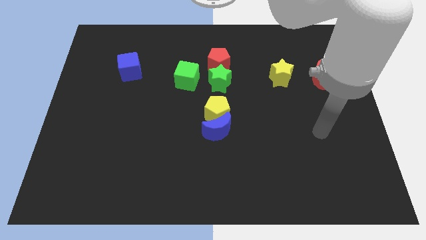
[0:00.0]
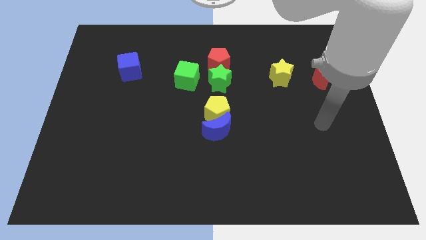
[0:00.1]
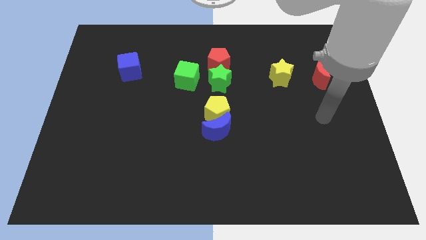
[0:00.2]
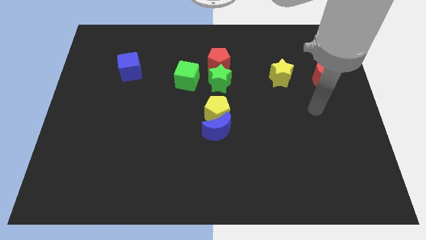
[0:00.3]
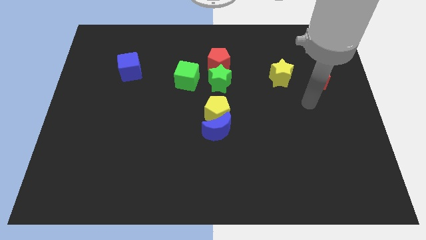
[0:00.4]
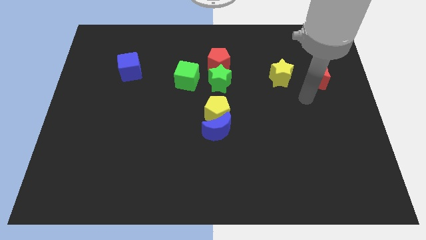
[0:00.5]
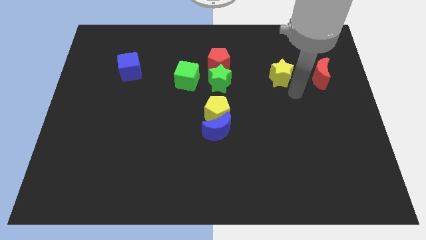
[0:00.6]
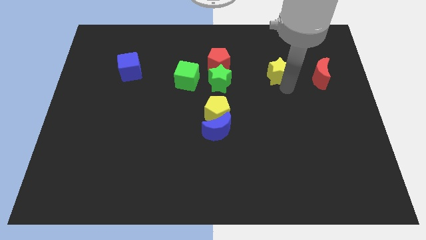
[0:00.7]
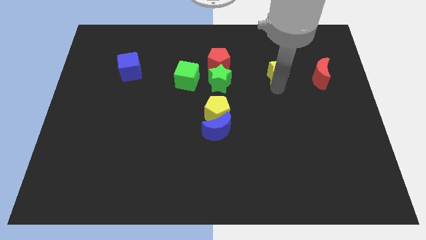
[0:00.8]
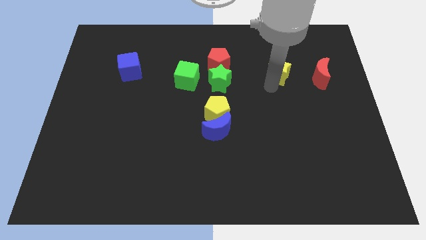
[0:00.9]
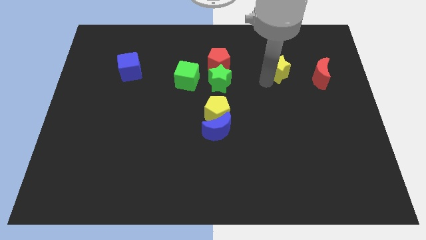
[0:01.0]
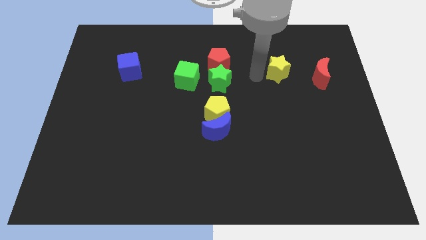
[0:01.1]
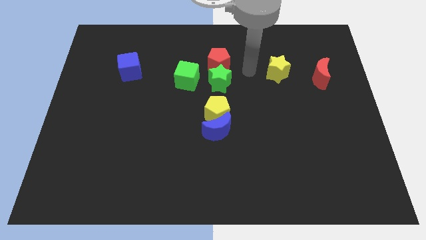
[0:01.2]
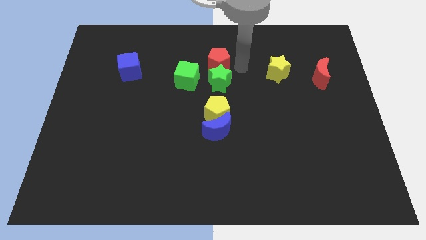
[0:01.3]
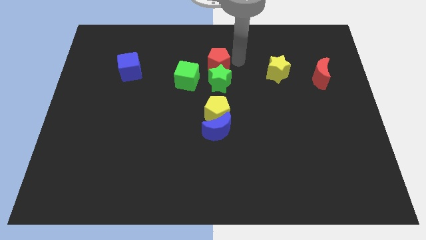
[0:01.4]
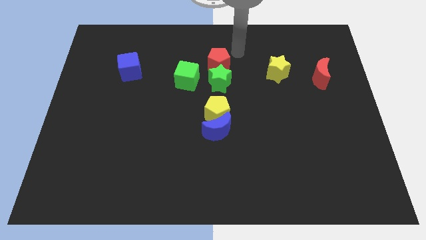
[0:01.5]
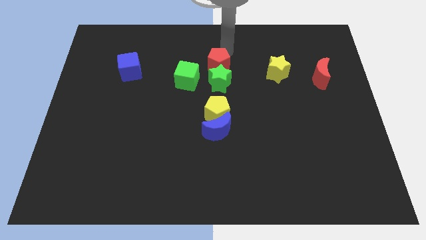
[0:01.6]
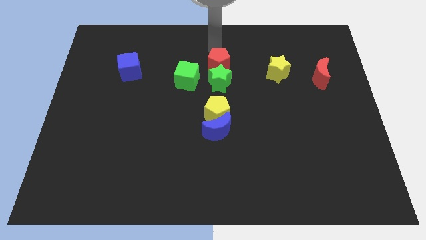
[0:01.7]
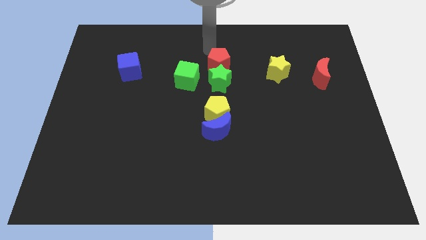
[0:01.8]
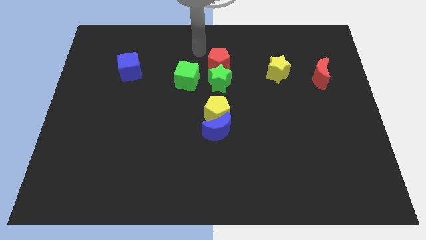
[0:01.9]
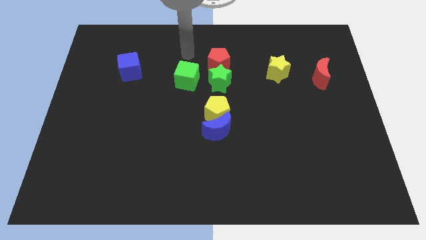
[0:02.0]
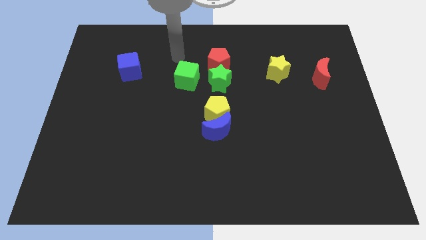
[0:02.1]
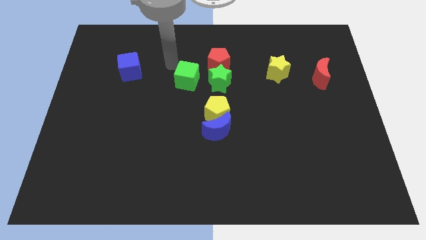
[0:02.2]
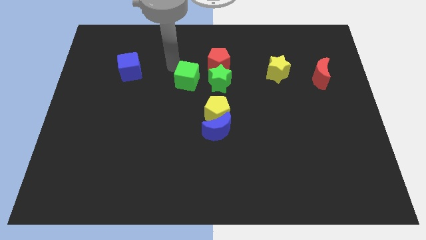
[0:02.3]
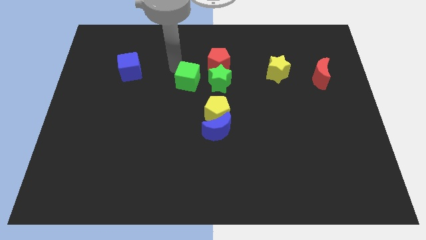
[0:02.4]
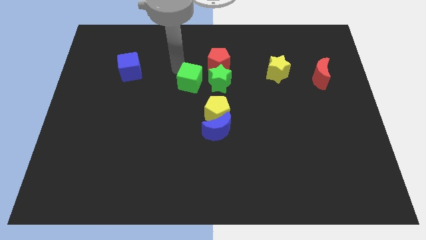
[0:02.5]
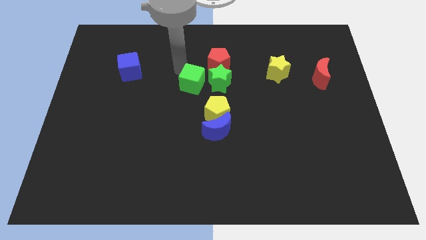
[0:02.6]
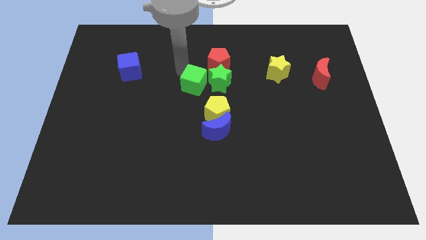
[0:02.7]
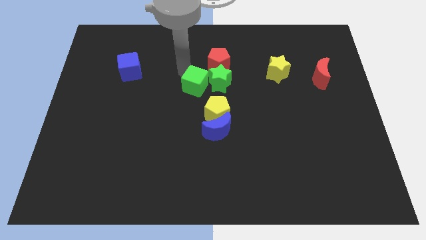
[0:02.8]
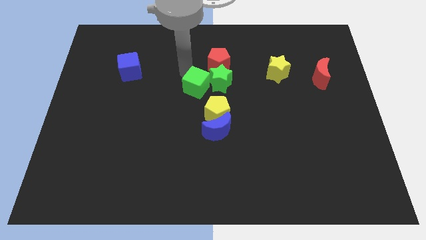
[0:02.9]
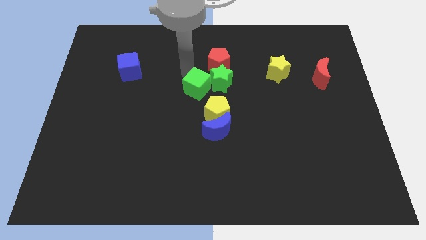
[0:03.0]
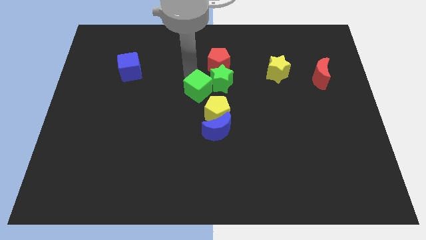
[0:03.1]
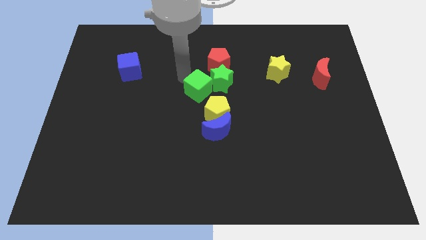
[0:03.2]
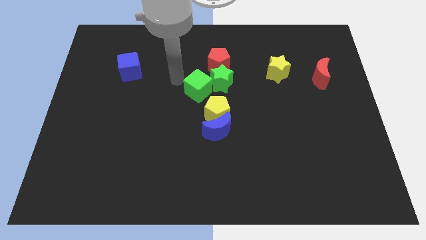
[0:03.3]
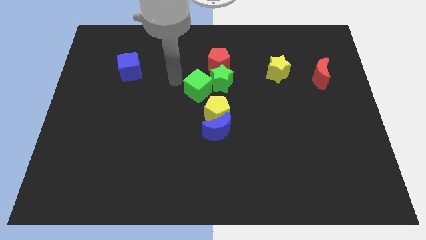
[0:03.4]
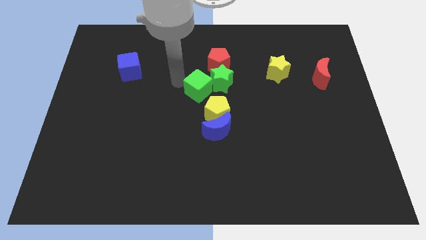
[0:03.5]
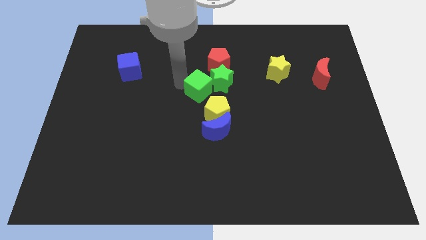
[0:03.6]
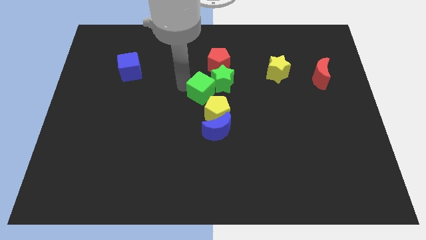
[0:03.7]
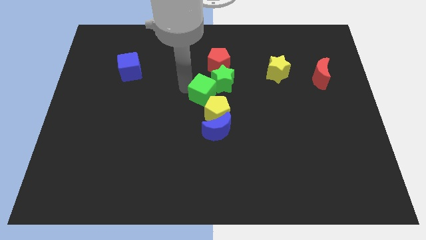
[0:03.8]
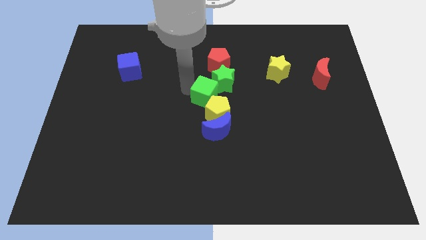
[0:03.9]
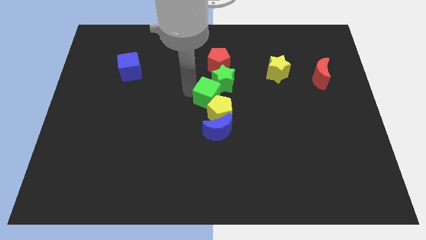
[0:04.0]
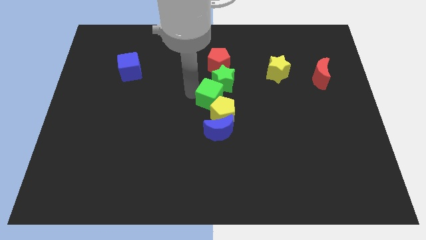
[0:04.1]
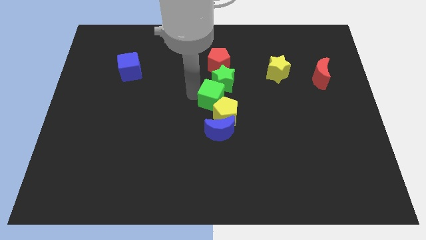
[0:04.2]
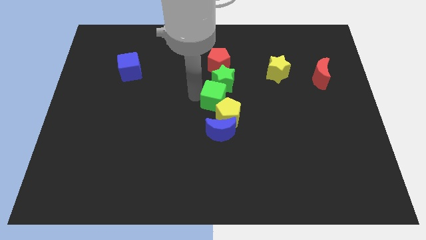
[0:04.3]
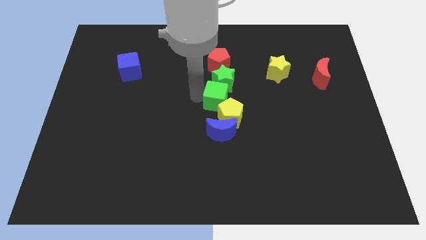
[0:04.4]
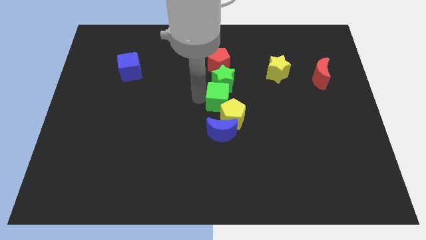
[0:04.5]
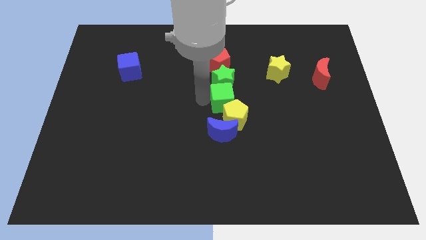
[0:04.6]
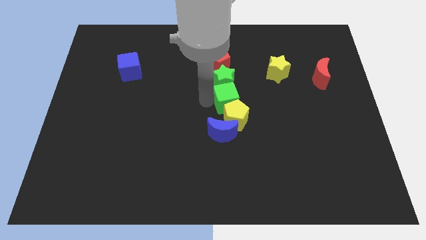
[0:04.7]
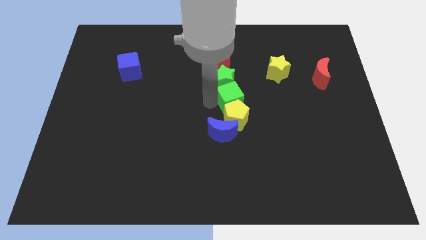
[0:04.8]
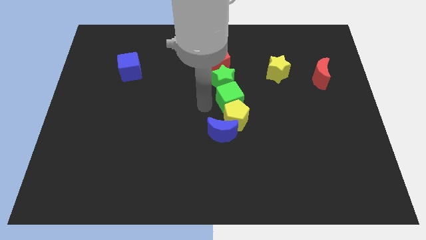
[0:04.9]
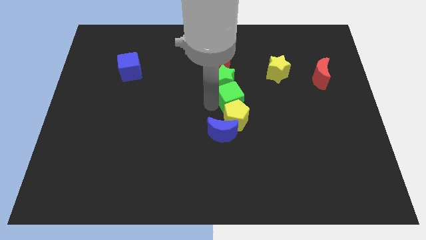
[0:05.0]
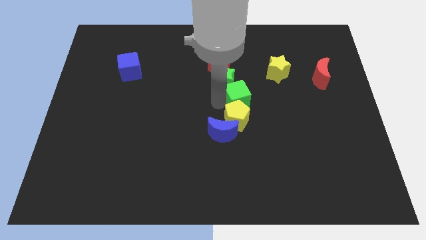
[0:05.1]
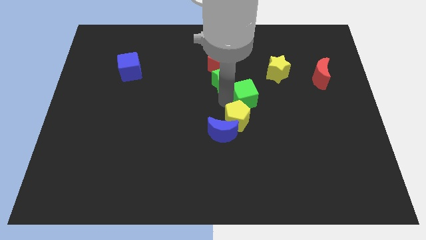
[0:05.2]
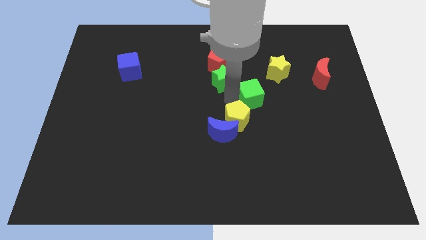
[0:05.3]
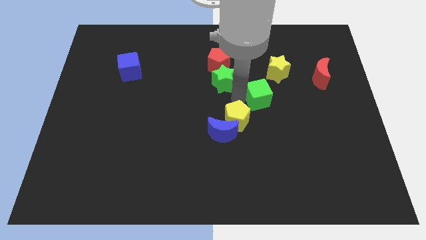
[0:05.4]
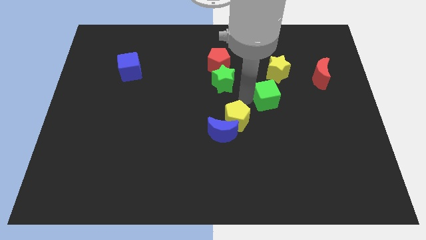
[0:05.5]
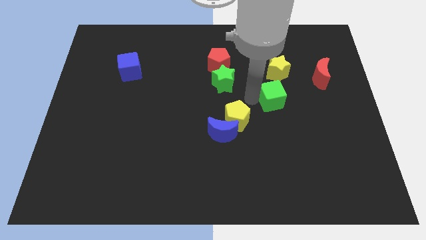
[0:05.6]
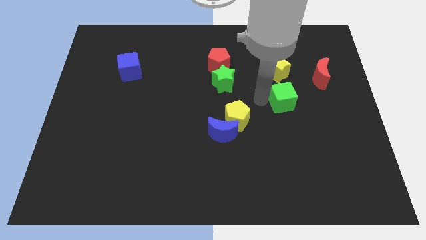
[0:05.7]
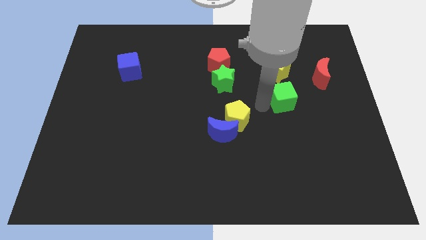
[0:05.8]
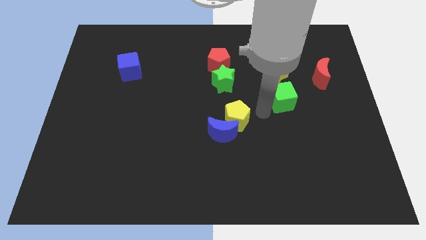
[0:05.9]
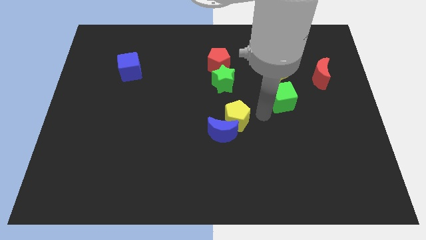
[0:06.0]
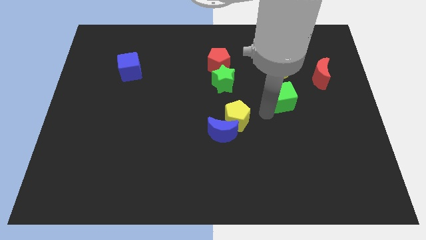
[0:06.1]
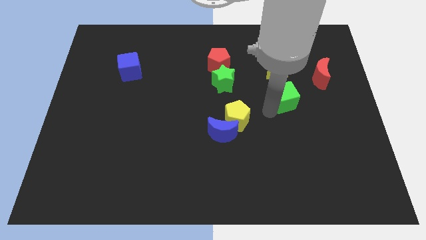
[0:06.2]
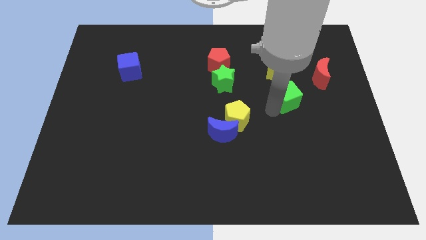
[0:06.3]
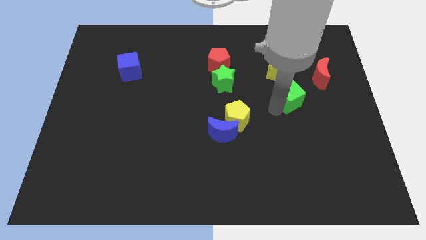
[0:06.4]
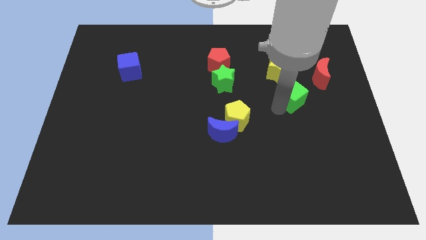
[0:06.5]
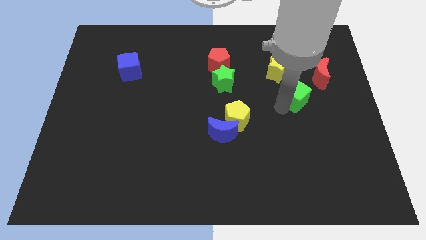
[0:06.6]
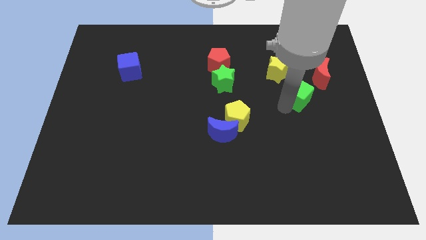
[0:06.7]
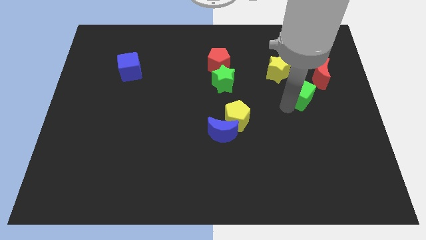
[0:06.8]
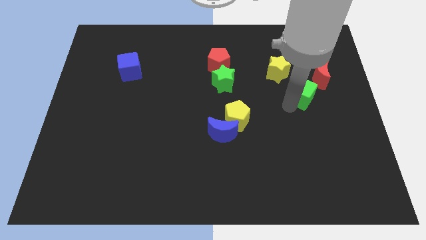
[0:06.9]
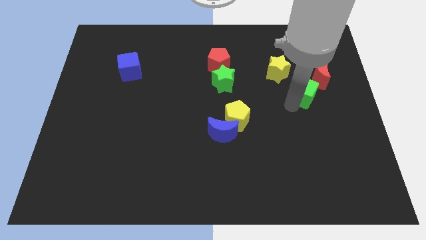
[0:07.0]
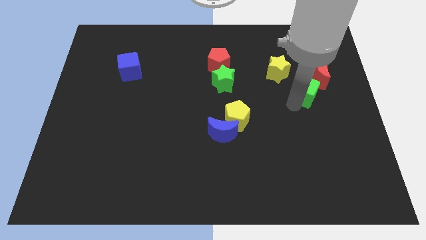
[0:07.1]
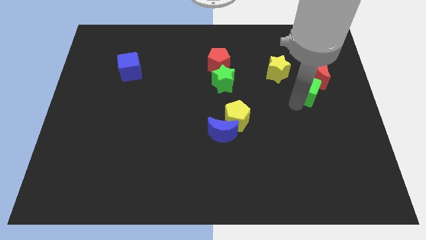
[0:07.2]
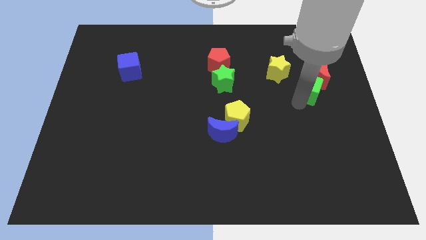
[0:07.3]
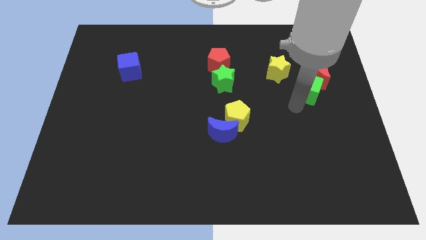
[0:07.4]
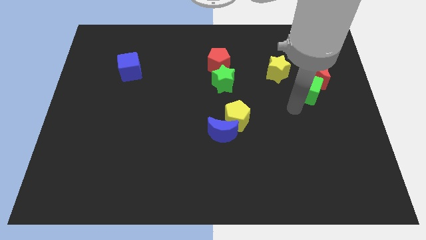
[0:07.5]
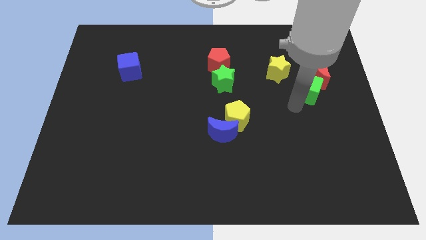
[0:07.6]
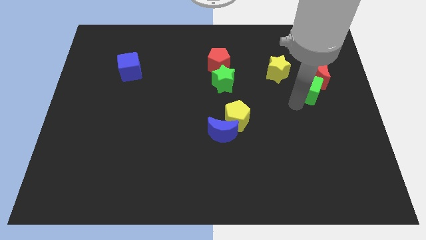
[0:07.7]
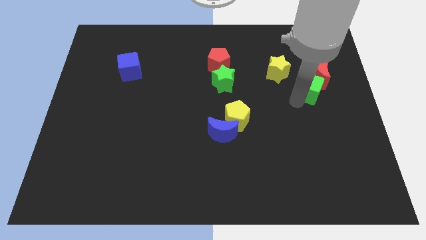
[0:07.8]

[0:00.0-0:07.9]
slide the green cube next to the red moon
